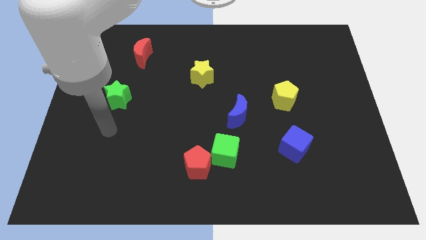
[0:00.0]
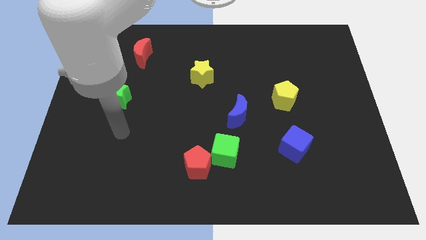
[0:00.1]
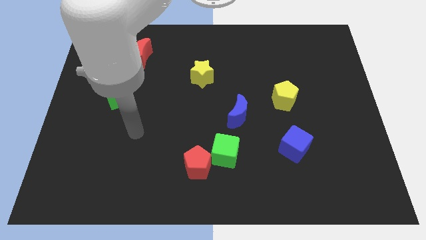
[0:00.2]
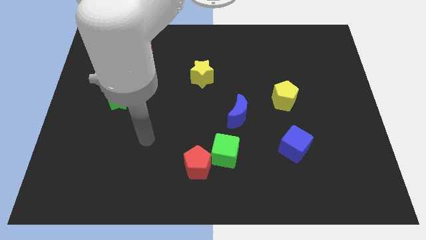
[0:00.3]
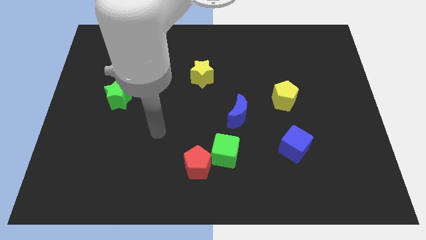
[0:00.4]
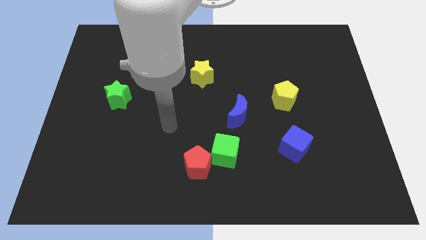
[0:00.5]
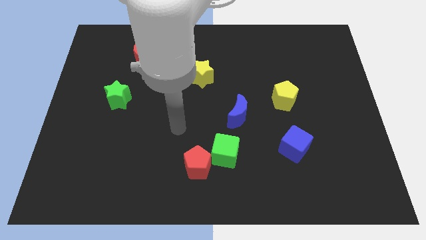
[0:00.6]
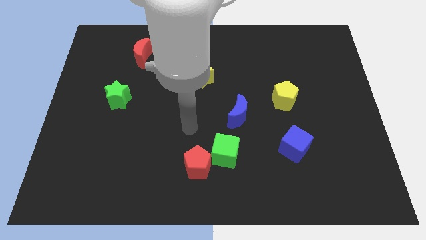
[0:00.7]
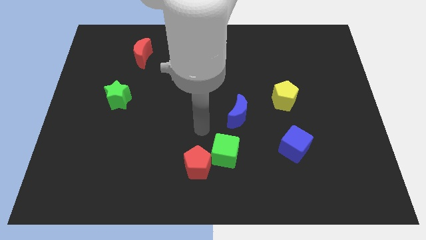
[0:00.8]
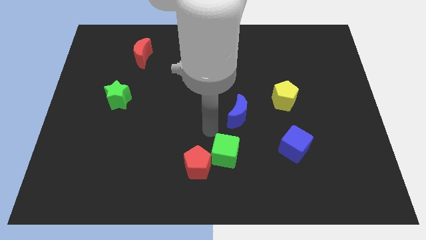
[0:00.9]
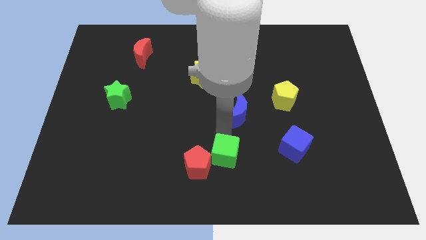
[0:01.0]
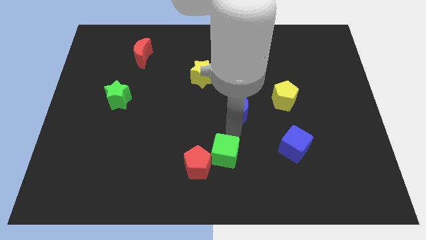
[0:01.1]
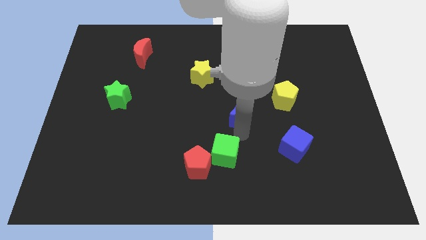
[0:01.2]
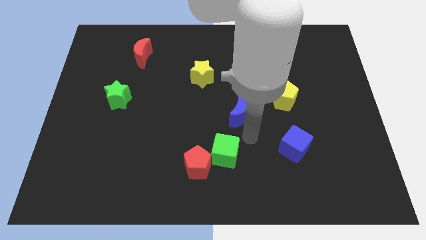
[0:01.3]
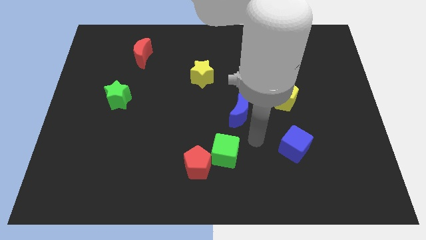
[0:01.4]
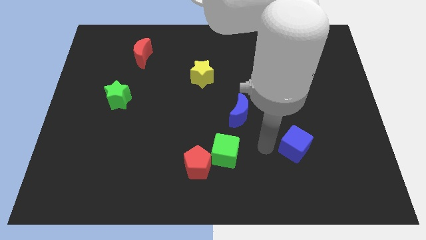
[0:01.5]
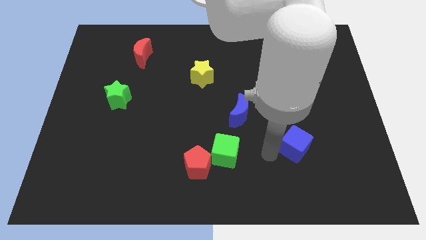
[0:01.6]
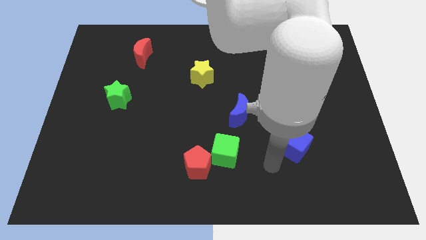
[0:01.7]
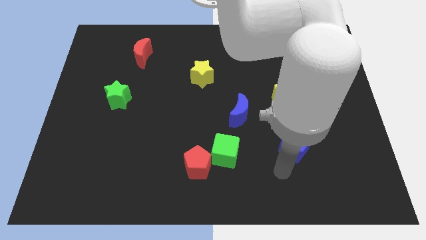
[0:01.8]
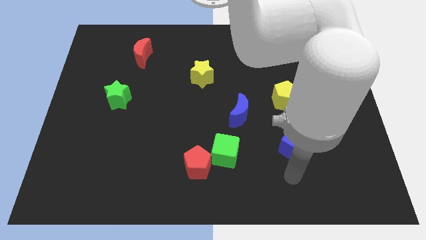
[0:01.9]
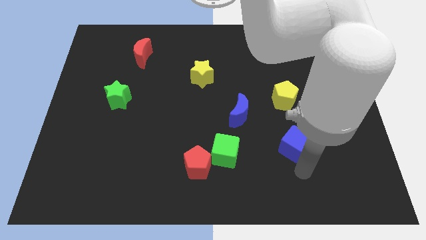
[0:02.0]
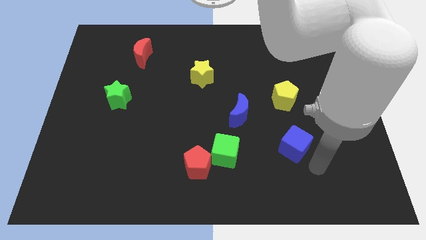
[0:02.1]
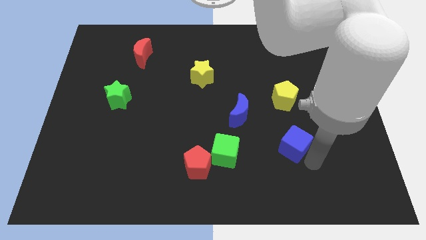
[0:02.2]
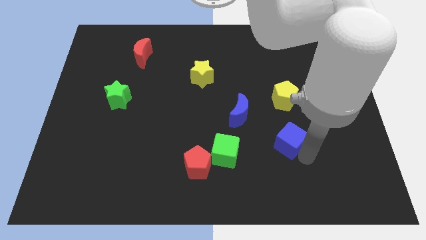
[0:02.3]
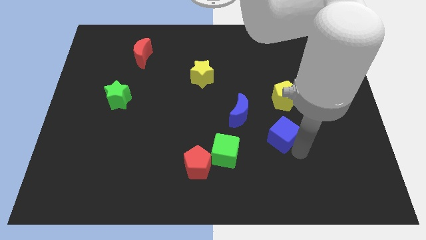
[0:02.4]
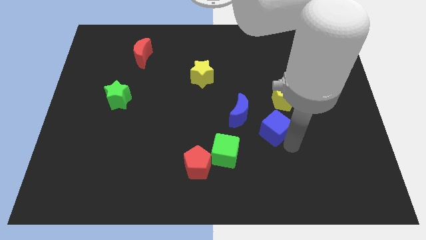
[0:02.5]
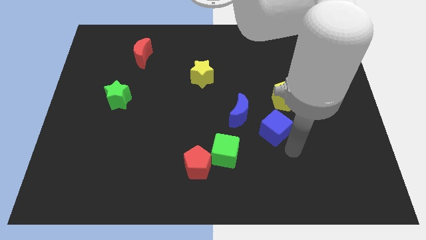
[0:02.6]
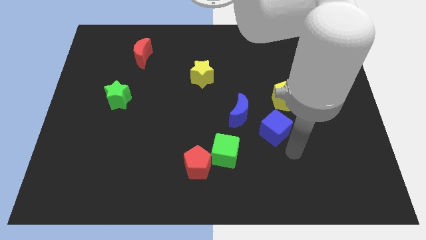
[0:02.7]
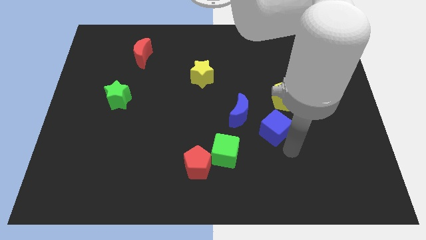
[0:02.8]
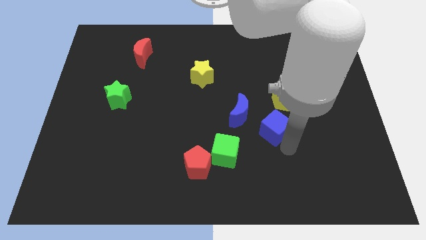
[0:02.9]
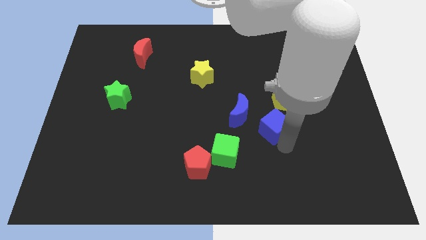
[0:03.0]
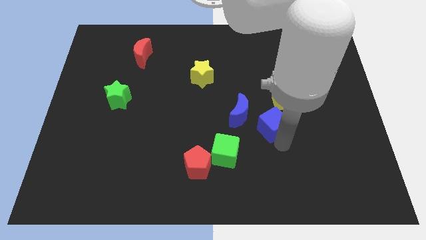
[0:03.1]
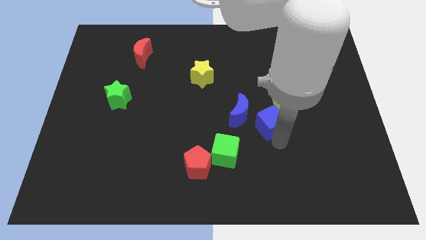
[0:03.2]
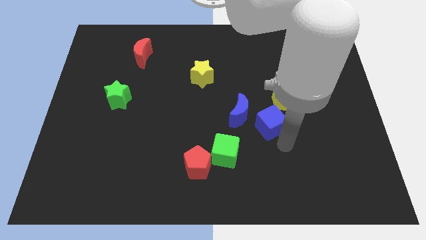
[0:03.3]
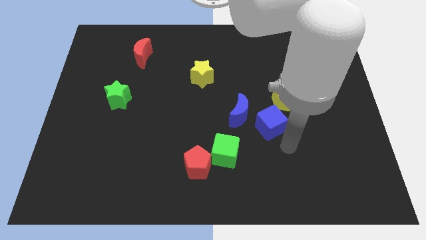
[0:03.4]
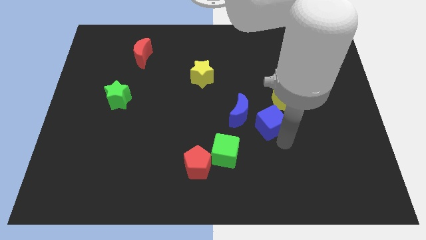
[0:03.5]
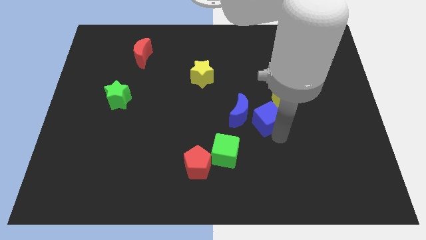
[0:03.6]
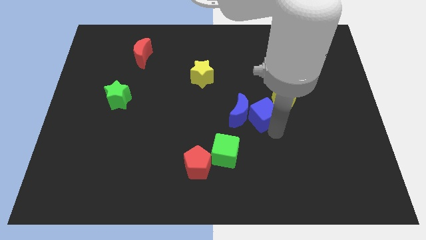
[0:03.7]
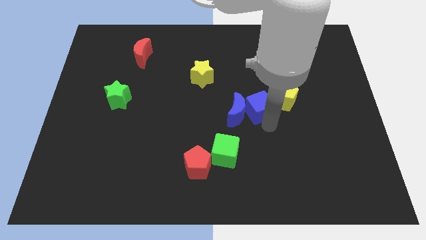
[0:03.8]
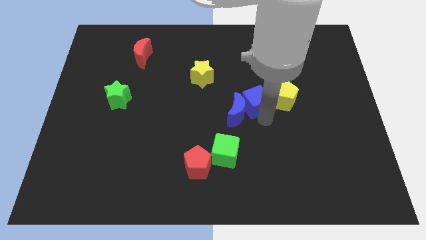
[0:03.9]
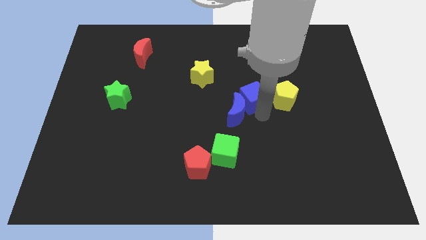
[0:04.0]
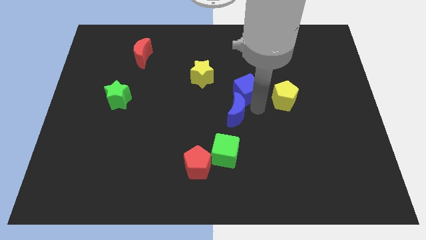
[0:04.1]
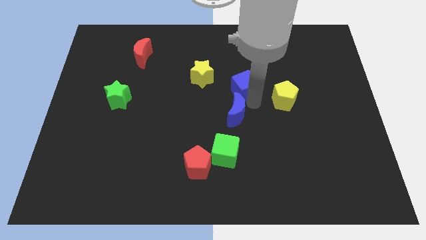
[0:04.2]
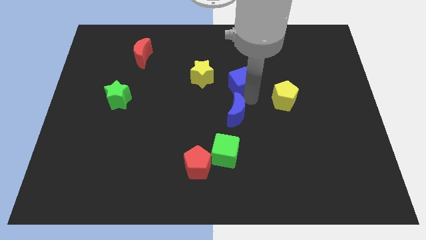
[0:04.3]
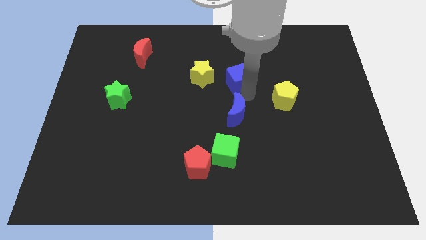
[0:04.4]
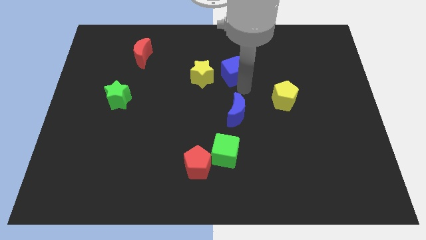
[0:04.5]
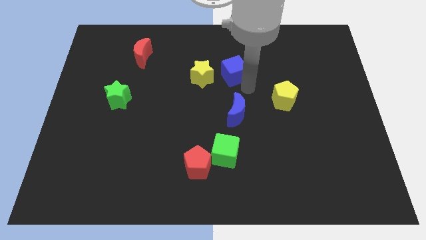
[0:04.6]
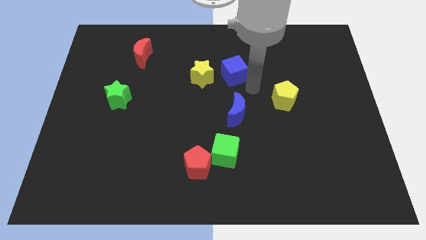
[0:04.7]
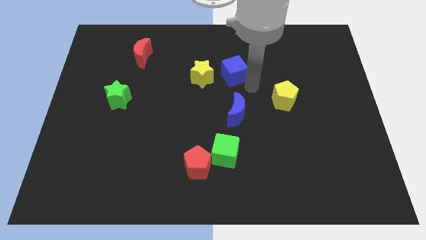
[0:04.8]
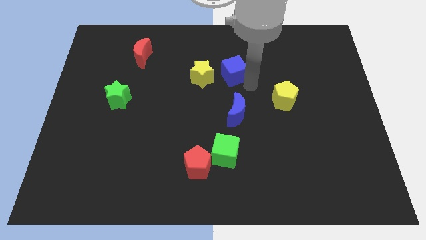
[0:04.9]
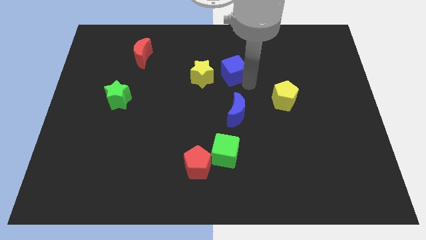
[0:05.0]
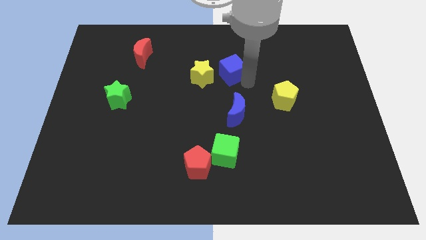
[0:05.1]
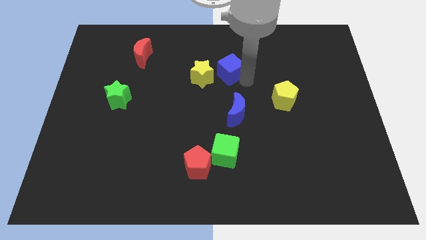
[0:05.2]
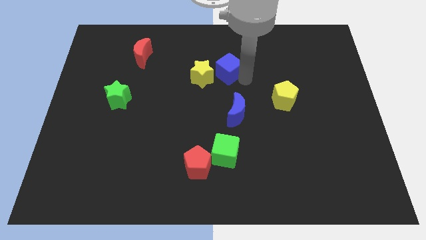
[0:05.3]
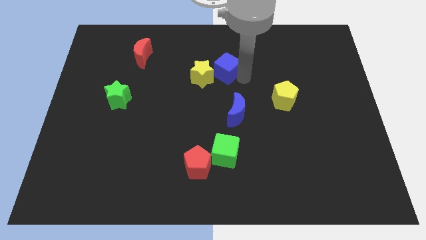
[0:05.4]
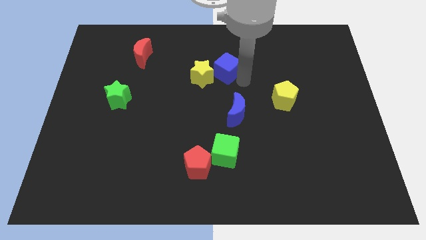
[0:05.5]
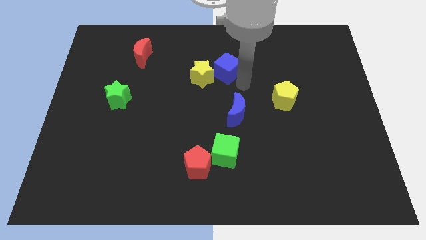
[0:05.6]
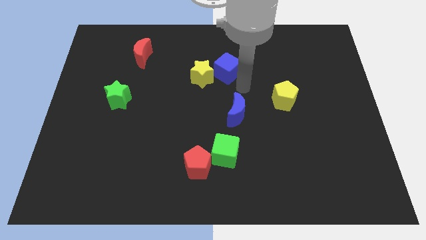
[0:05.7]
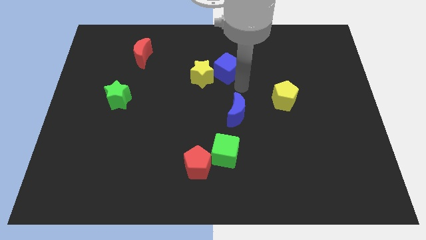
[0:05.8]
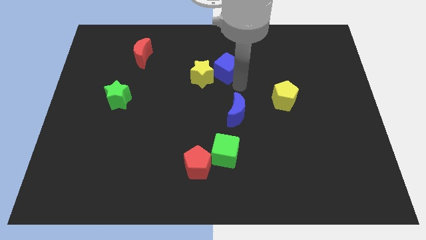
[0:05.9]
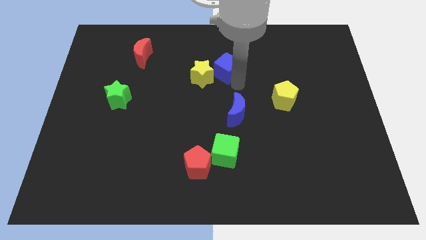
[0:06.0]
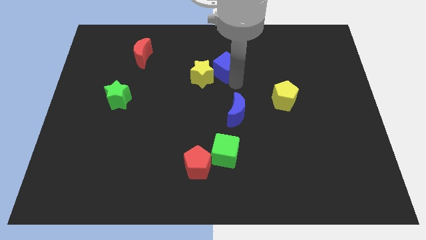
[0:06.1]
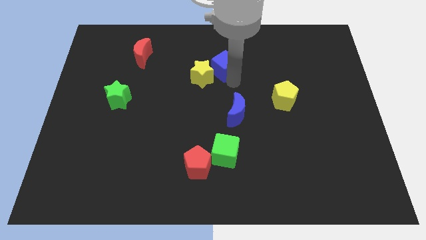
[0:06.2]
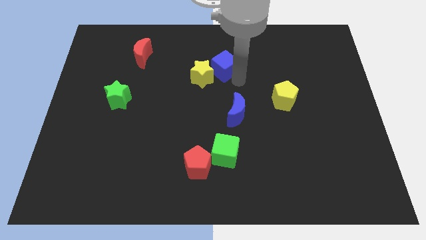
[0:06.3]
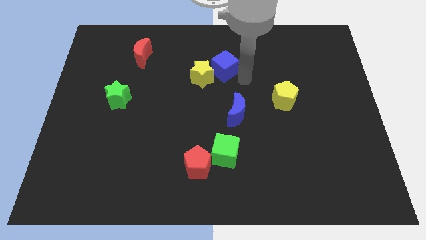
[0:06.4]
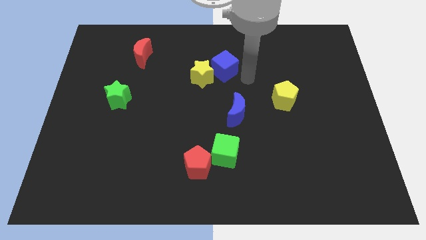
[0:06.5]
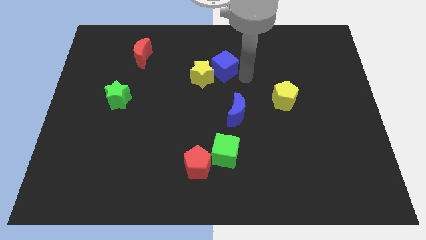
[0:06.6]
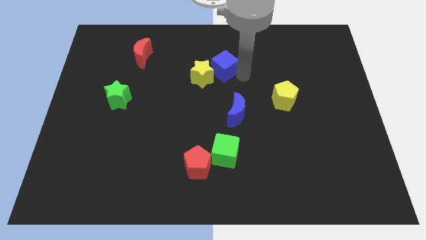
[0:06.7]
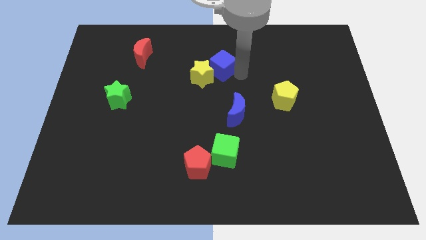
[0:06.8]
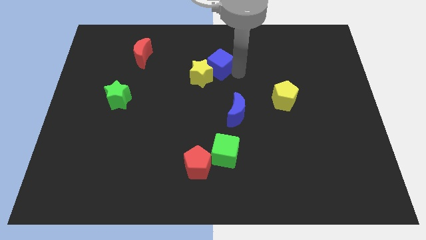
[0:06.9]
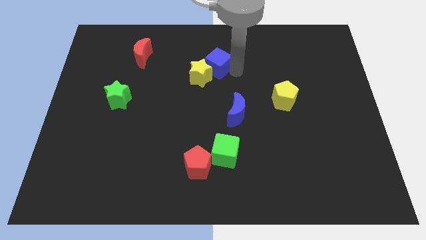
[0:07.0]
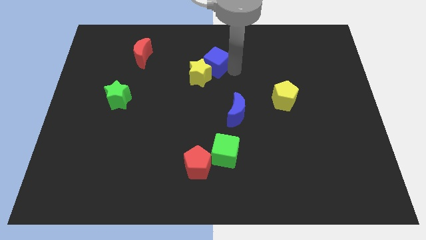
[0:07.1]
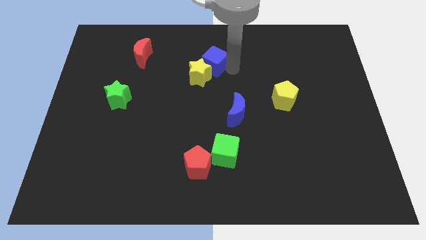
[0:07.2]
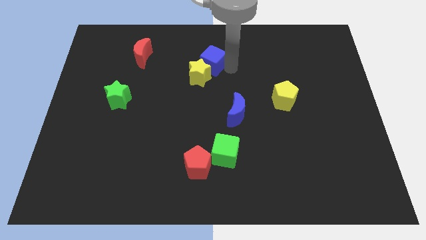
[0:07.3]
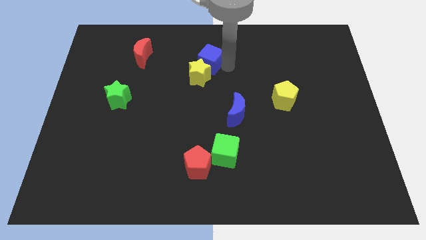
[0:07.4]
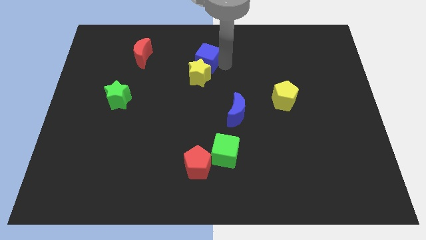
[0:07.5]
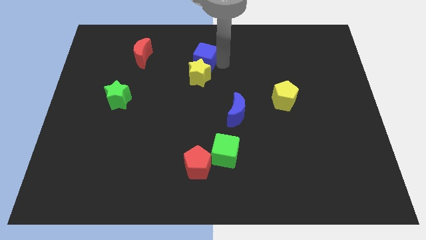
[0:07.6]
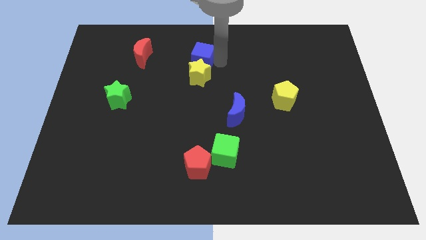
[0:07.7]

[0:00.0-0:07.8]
push the blue cube to the right side of the red moon
